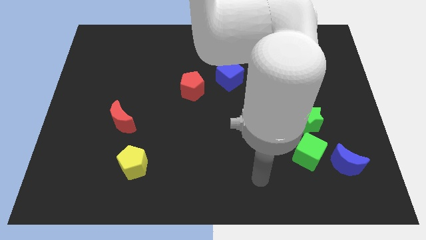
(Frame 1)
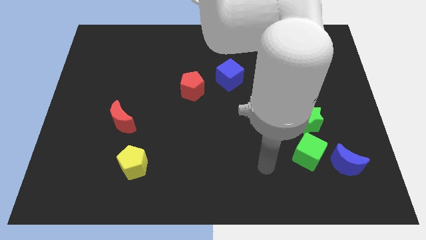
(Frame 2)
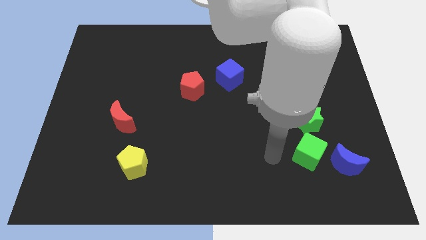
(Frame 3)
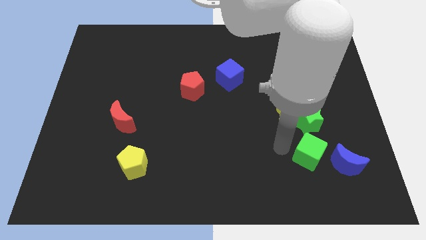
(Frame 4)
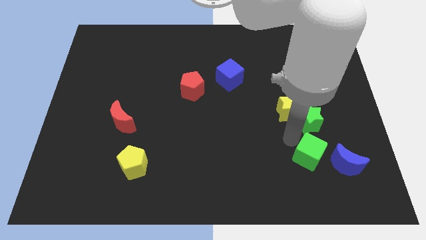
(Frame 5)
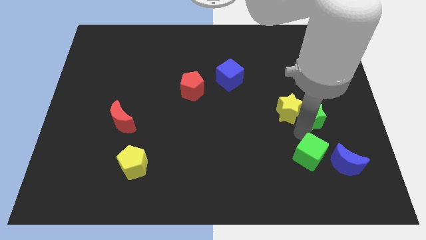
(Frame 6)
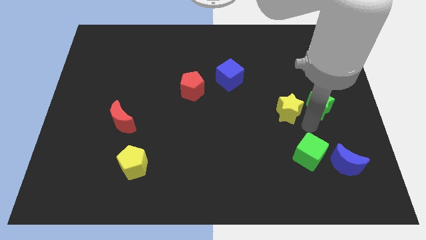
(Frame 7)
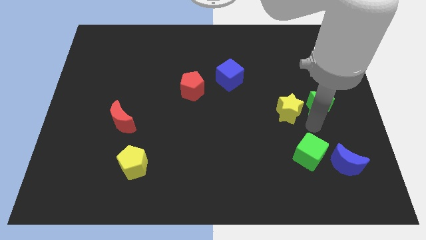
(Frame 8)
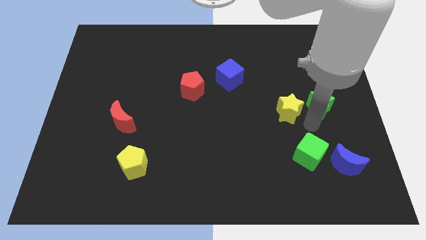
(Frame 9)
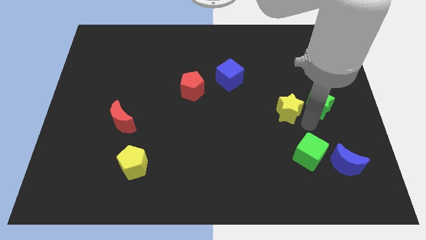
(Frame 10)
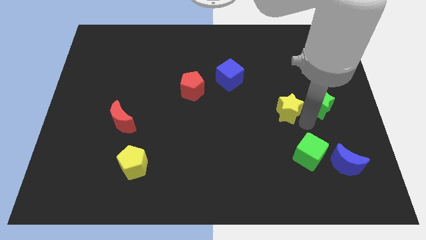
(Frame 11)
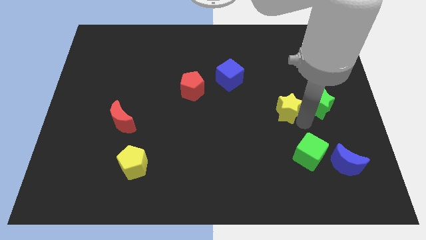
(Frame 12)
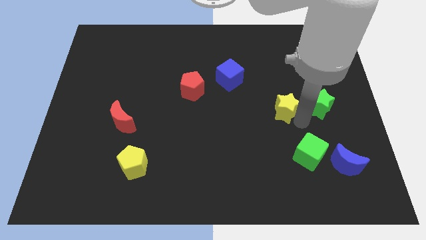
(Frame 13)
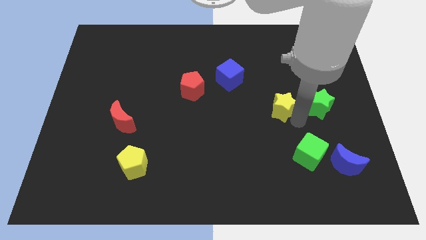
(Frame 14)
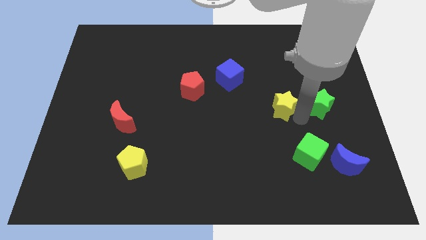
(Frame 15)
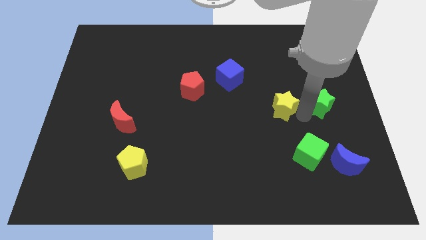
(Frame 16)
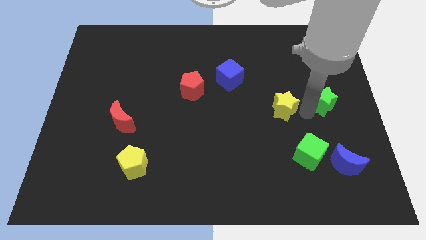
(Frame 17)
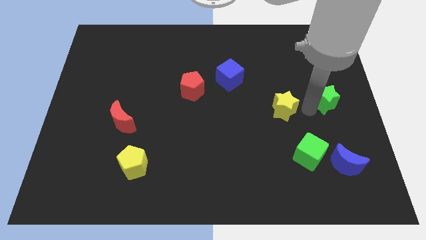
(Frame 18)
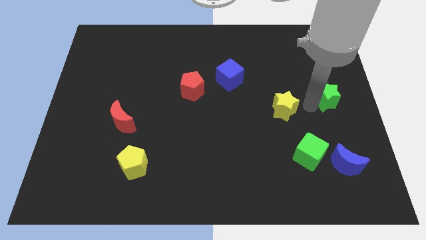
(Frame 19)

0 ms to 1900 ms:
move the yellow star away from the green star

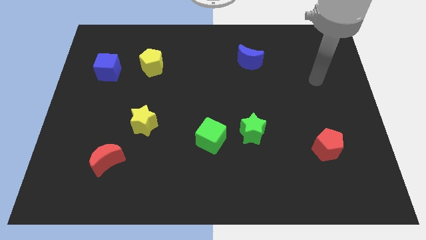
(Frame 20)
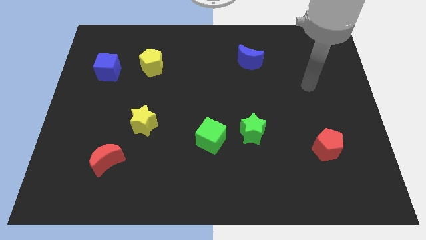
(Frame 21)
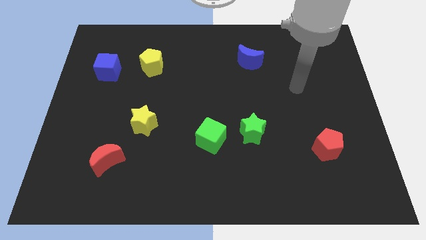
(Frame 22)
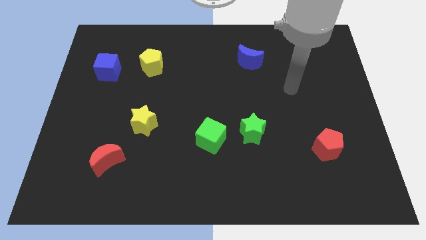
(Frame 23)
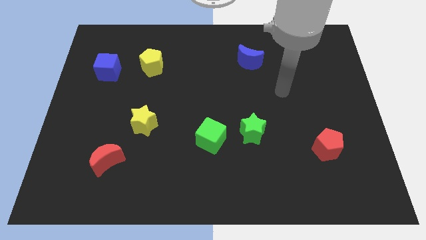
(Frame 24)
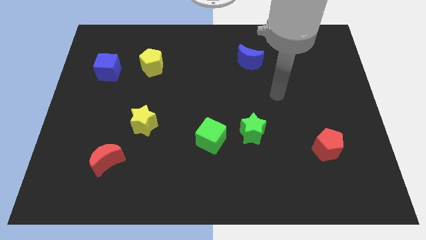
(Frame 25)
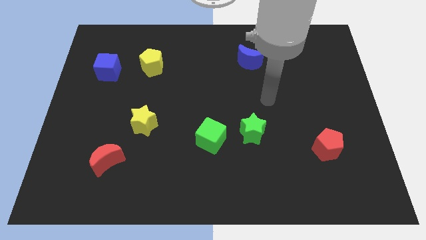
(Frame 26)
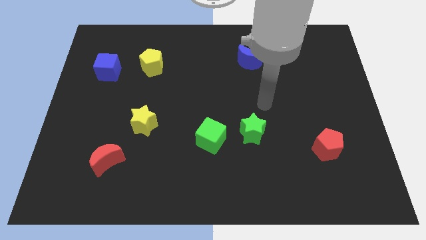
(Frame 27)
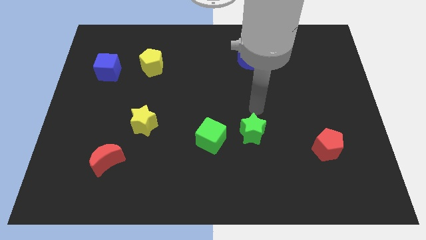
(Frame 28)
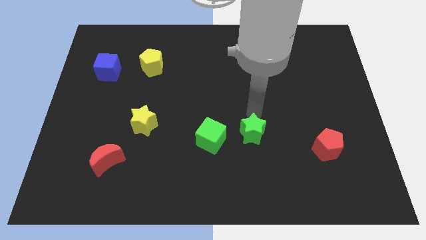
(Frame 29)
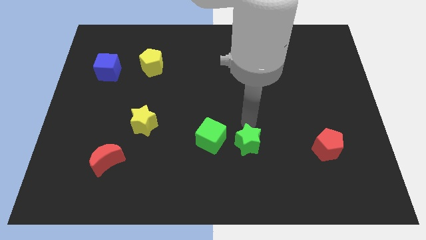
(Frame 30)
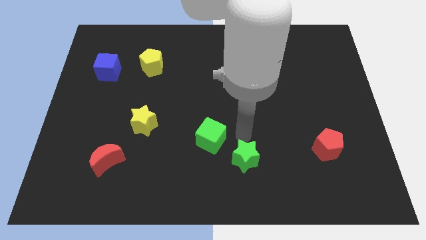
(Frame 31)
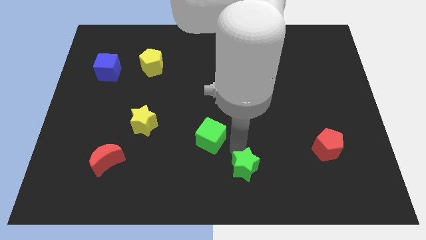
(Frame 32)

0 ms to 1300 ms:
move the green cube away from the green star

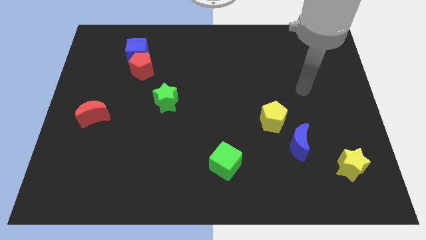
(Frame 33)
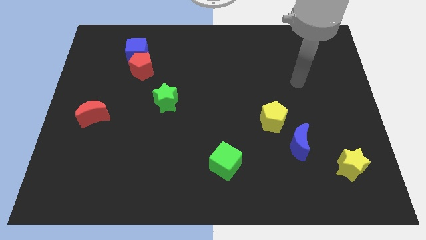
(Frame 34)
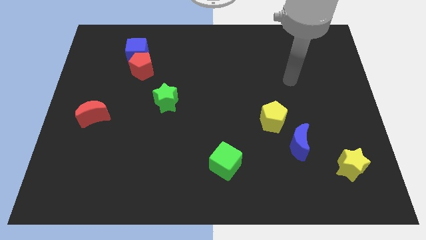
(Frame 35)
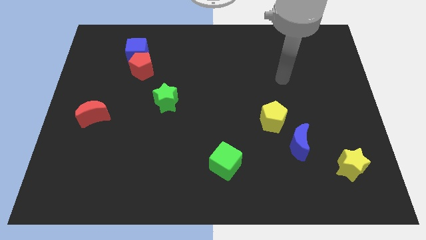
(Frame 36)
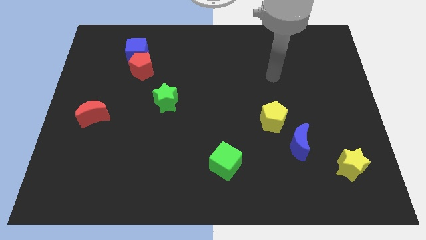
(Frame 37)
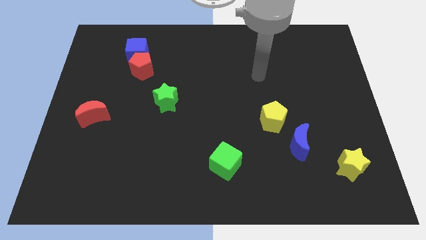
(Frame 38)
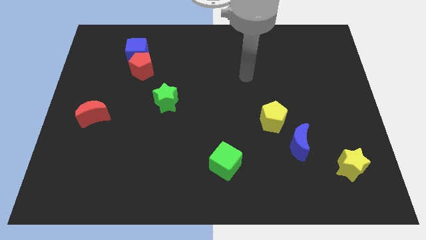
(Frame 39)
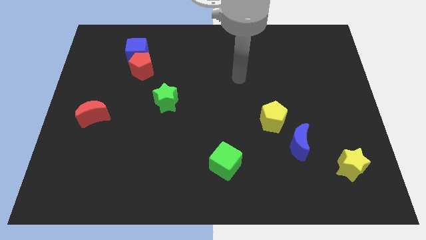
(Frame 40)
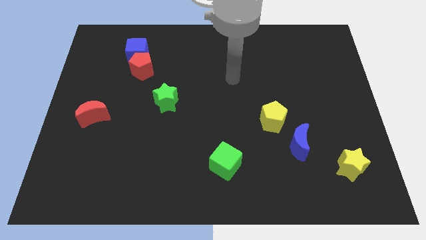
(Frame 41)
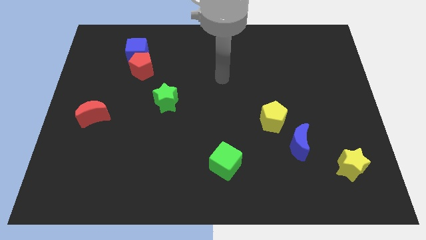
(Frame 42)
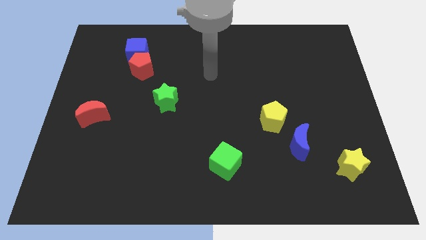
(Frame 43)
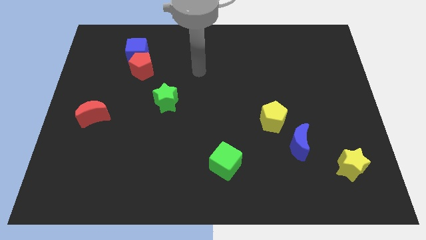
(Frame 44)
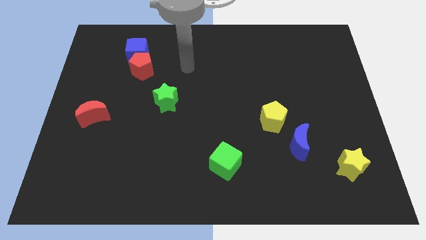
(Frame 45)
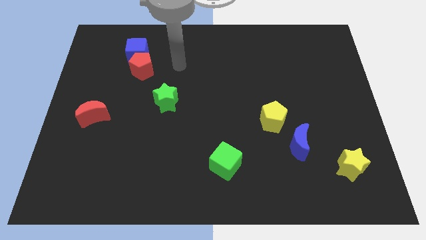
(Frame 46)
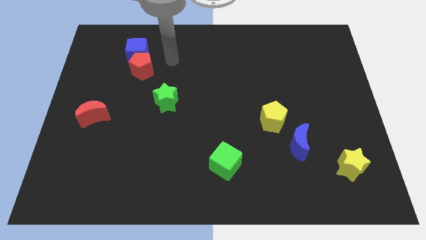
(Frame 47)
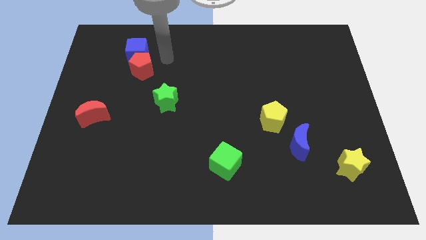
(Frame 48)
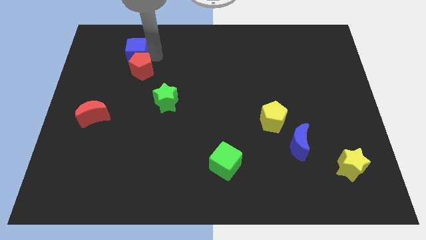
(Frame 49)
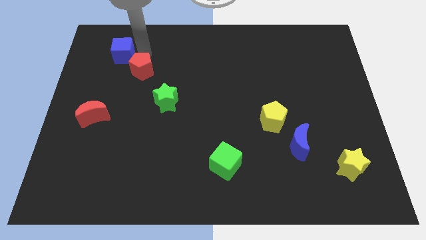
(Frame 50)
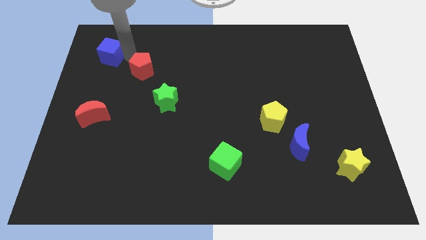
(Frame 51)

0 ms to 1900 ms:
separate the red pentagon from the blue cube

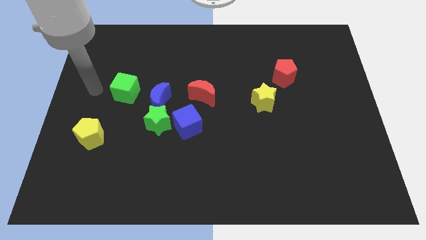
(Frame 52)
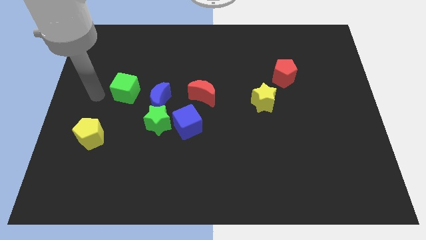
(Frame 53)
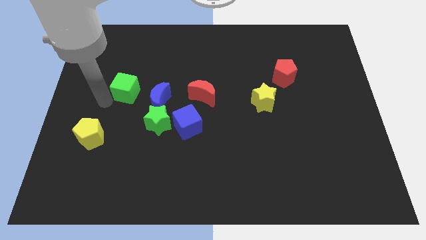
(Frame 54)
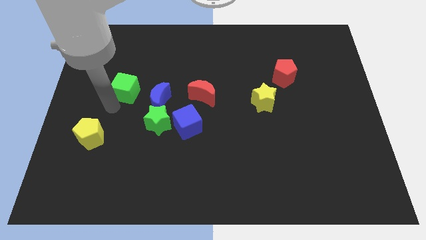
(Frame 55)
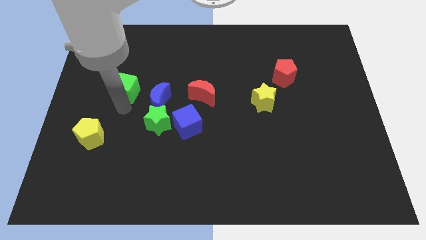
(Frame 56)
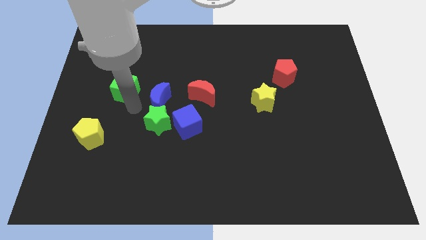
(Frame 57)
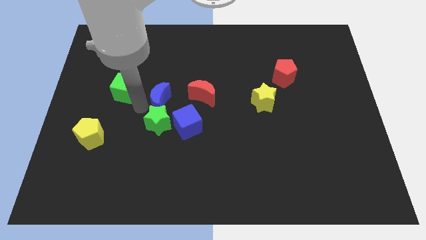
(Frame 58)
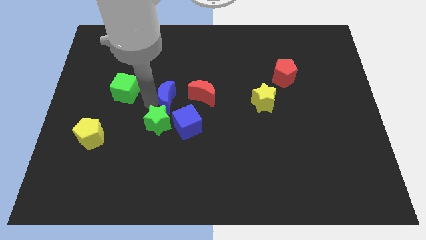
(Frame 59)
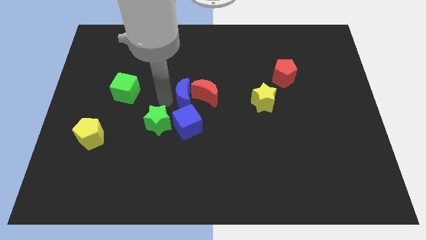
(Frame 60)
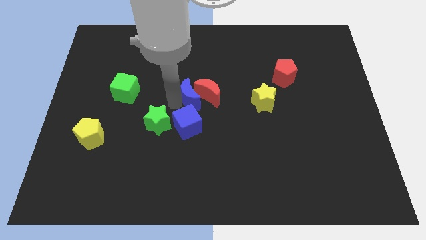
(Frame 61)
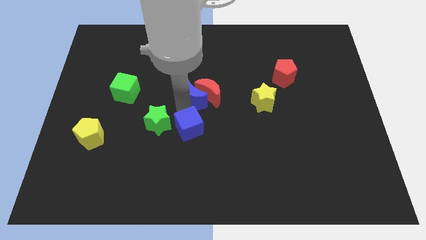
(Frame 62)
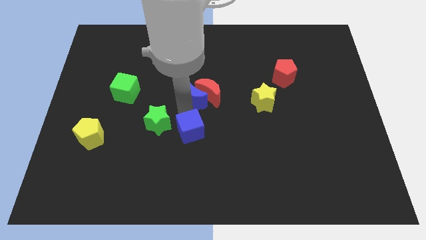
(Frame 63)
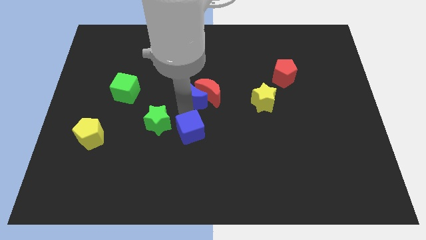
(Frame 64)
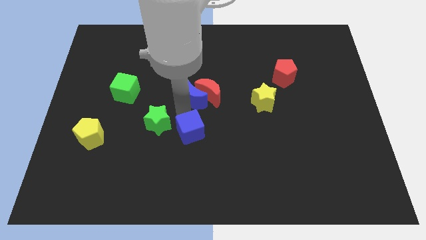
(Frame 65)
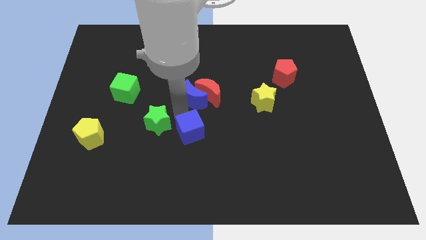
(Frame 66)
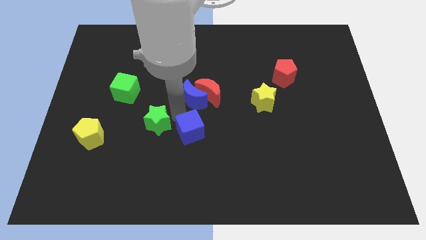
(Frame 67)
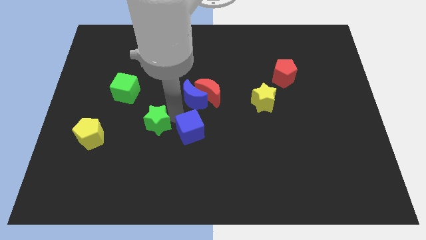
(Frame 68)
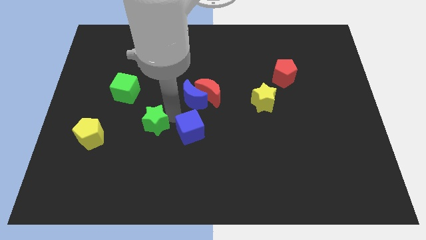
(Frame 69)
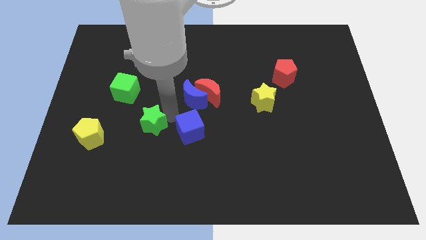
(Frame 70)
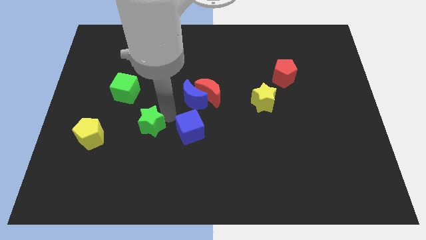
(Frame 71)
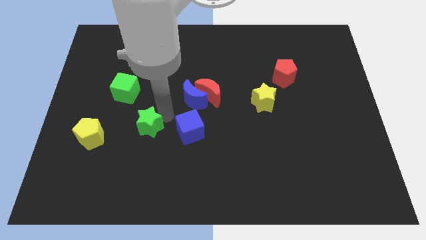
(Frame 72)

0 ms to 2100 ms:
pull the green star apart from the blue moon and blue cube

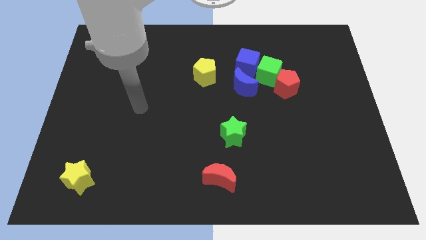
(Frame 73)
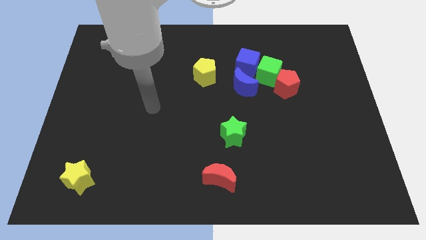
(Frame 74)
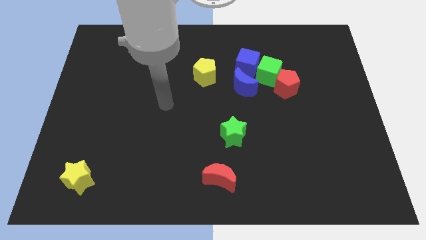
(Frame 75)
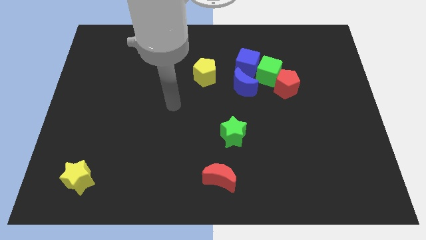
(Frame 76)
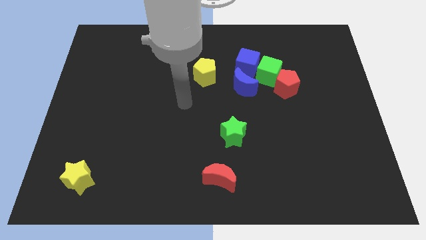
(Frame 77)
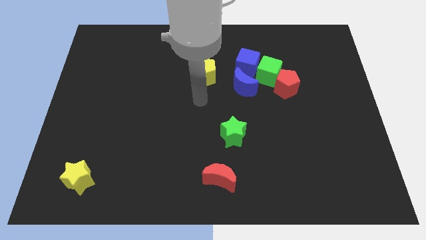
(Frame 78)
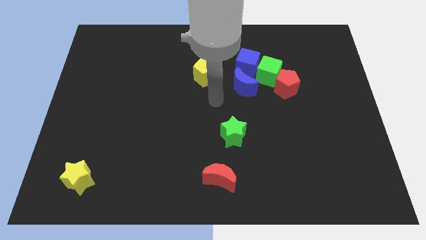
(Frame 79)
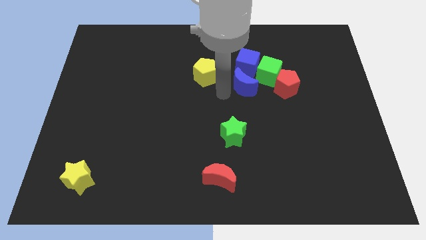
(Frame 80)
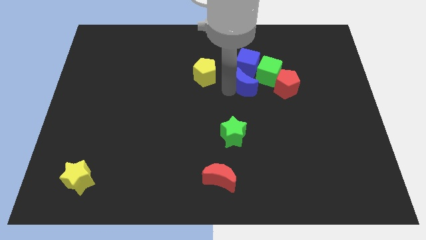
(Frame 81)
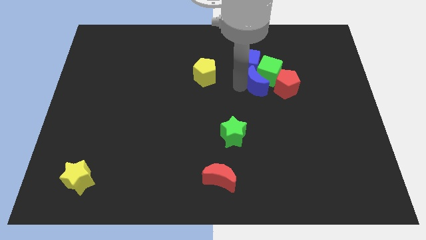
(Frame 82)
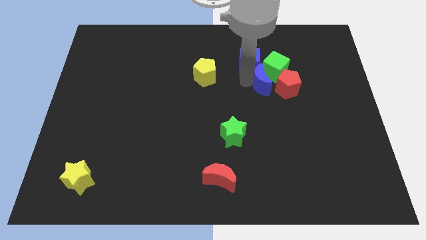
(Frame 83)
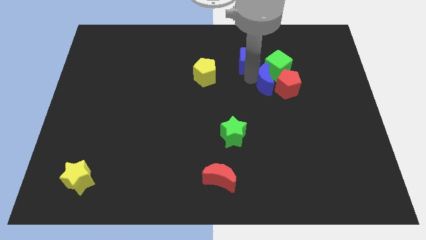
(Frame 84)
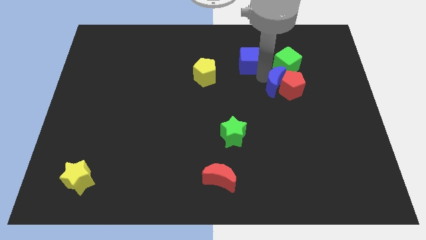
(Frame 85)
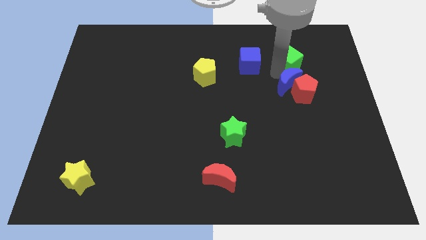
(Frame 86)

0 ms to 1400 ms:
separate the red pentagon from the green cube

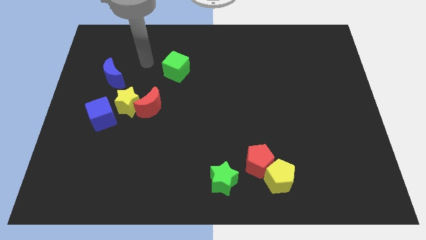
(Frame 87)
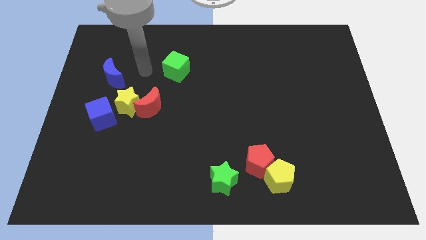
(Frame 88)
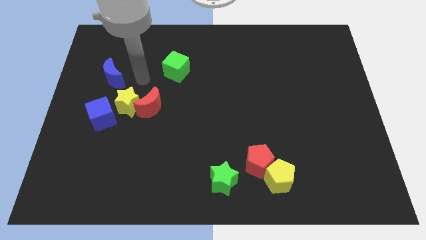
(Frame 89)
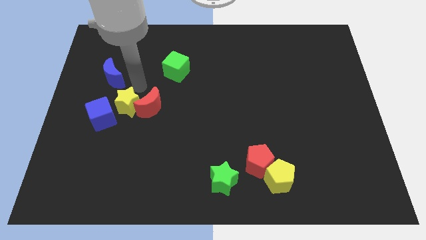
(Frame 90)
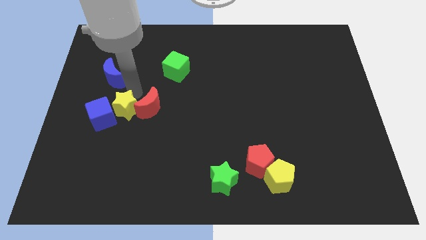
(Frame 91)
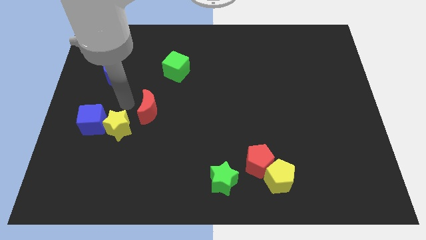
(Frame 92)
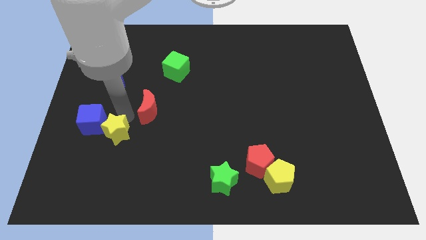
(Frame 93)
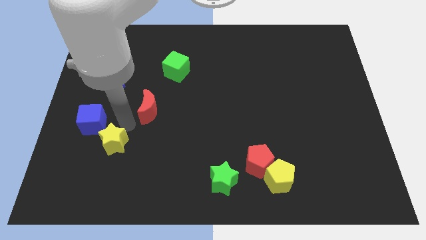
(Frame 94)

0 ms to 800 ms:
separate the red moon from the yellow star
